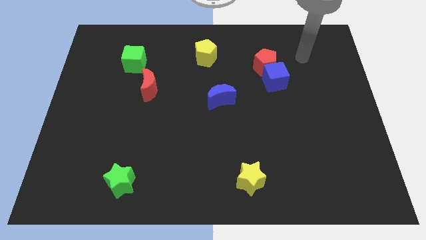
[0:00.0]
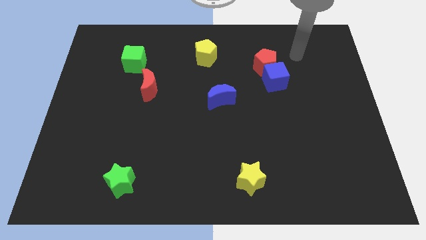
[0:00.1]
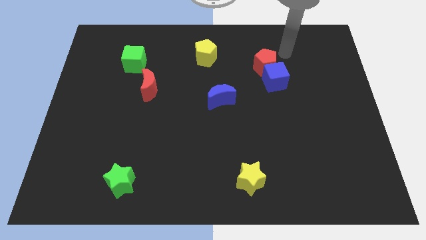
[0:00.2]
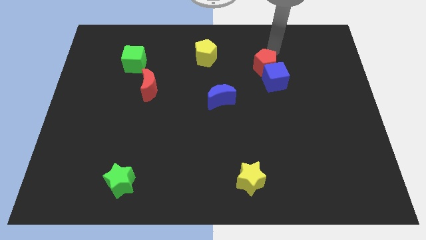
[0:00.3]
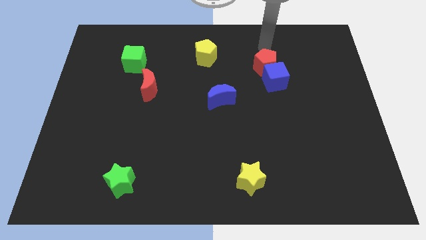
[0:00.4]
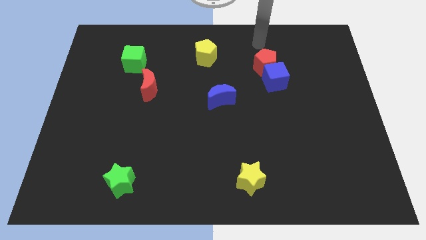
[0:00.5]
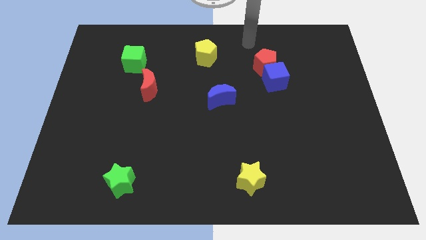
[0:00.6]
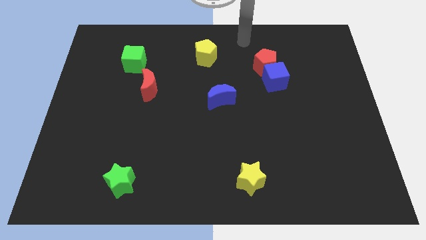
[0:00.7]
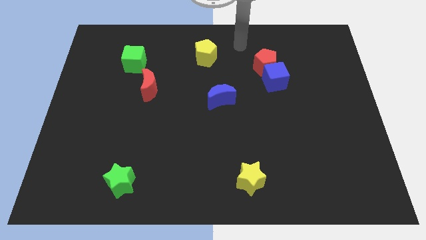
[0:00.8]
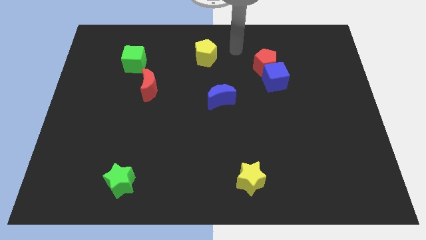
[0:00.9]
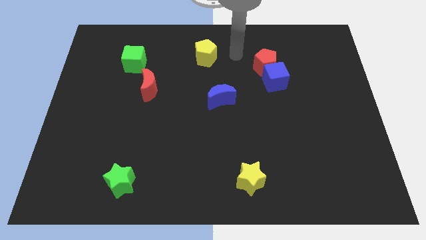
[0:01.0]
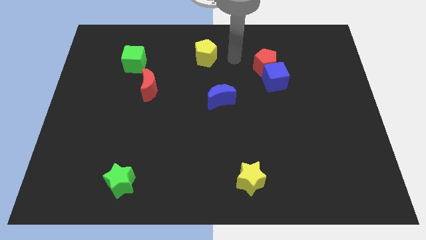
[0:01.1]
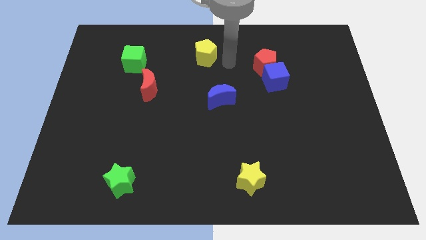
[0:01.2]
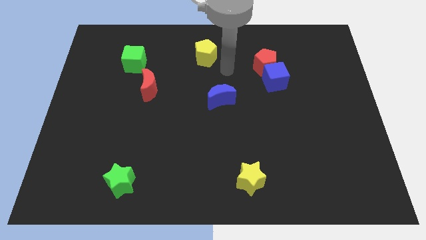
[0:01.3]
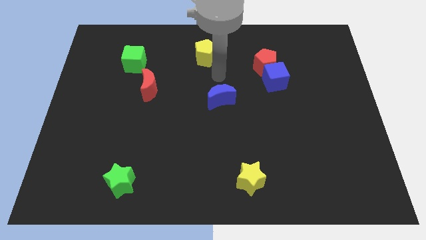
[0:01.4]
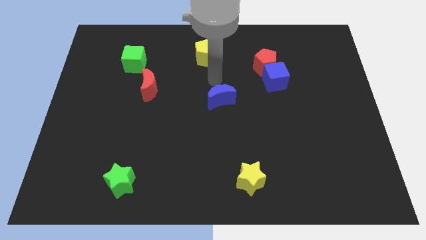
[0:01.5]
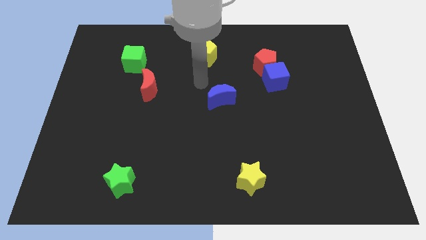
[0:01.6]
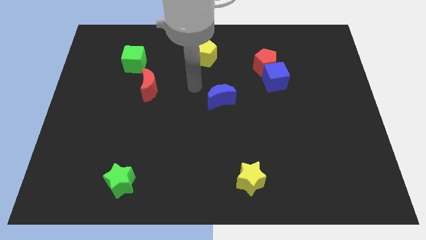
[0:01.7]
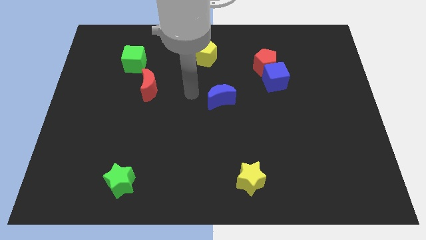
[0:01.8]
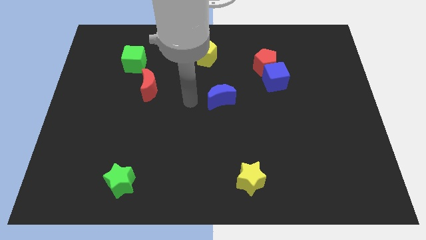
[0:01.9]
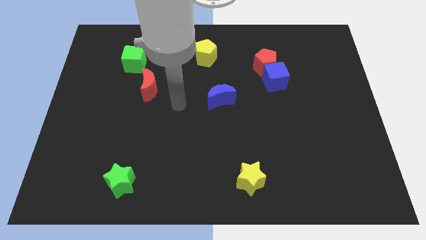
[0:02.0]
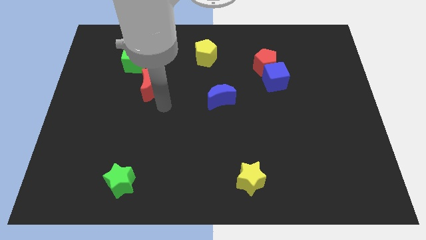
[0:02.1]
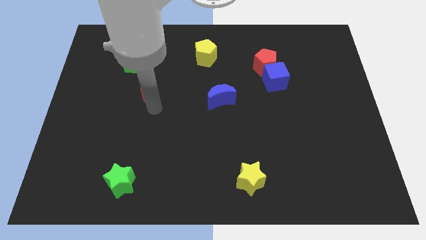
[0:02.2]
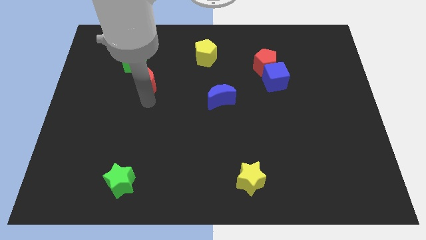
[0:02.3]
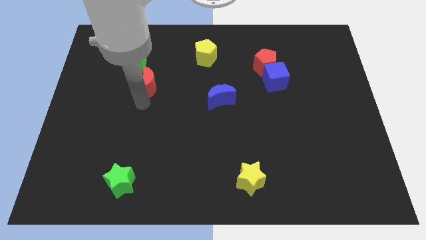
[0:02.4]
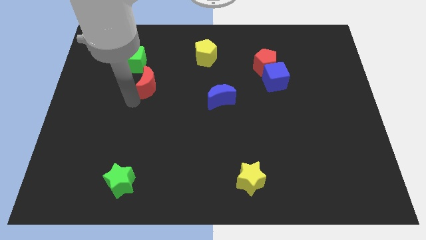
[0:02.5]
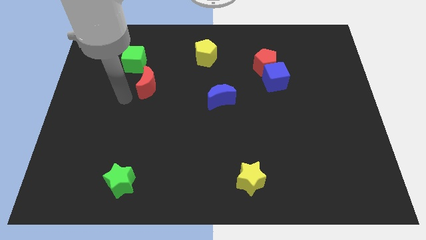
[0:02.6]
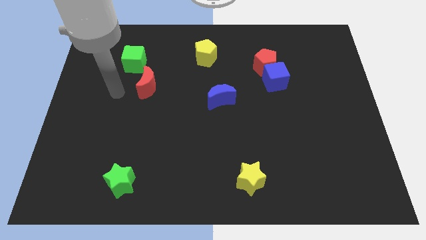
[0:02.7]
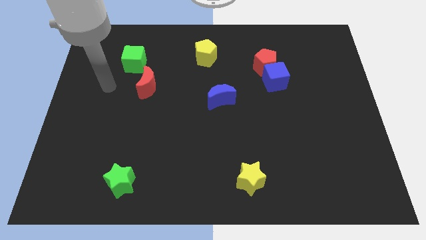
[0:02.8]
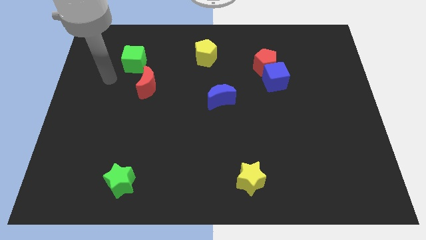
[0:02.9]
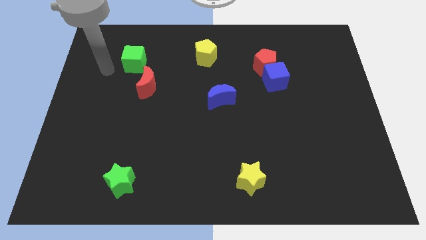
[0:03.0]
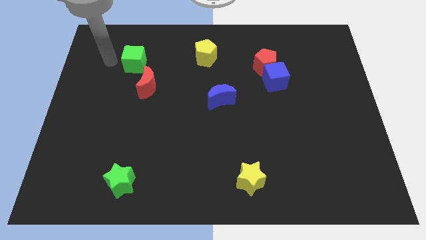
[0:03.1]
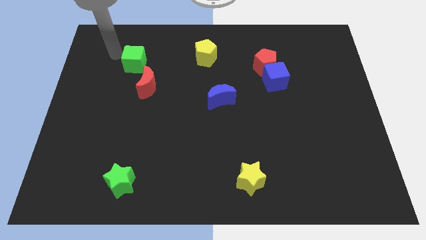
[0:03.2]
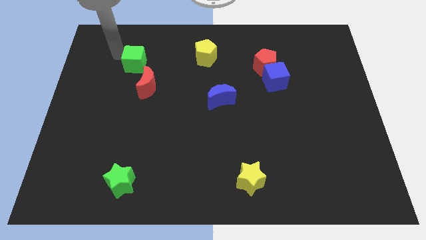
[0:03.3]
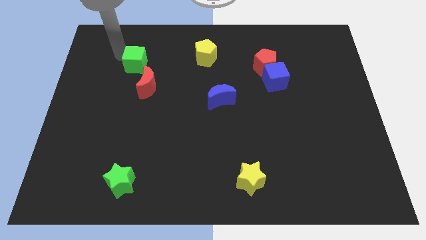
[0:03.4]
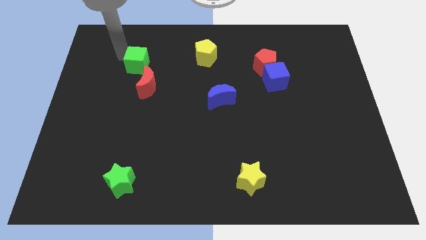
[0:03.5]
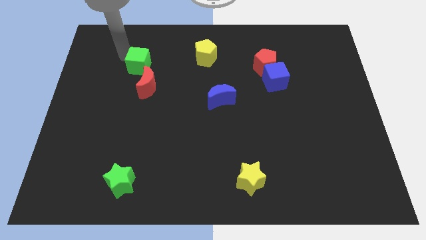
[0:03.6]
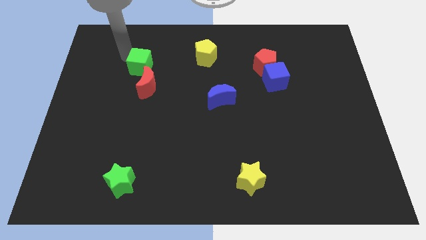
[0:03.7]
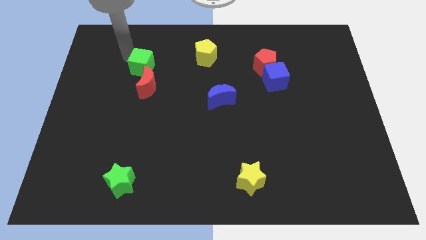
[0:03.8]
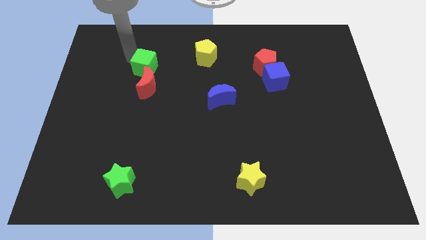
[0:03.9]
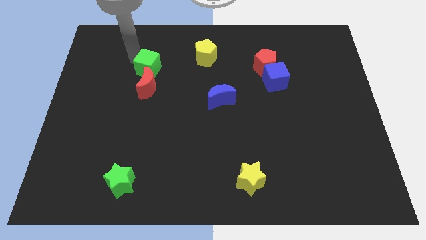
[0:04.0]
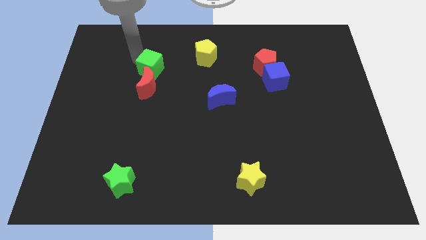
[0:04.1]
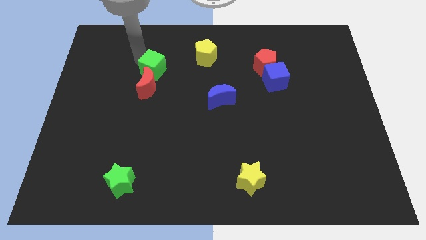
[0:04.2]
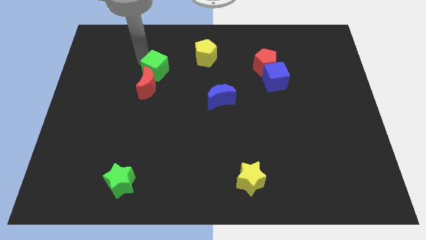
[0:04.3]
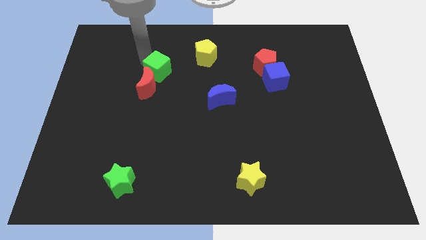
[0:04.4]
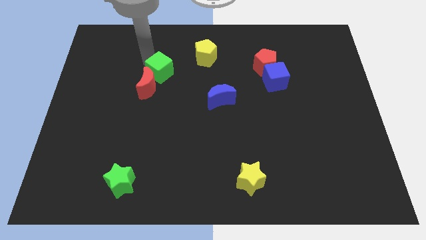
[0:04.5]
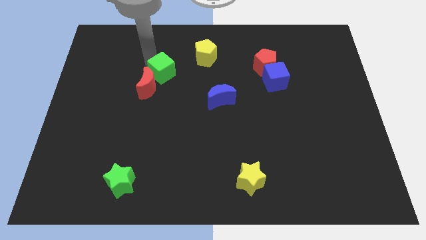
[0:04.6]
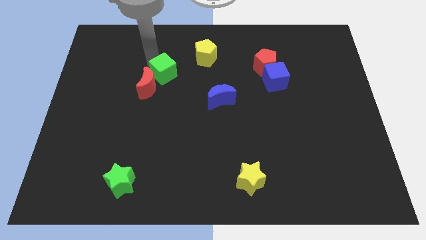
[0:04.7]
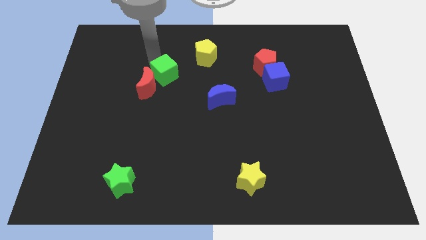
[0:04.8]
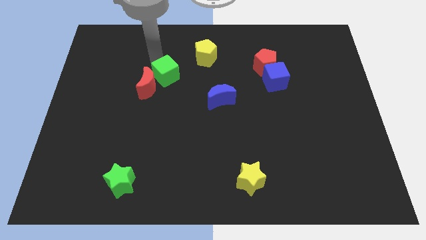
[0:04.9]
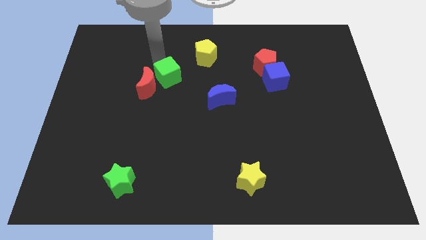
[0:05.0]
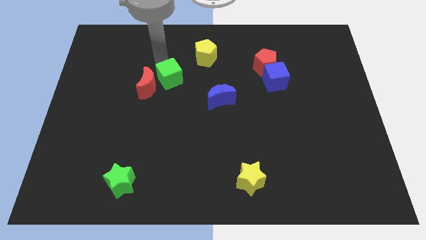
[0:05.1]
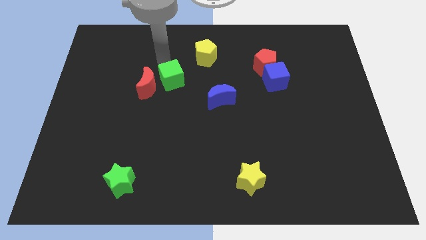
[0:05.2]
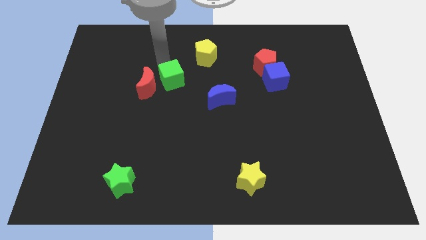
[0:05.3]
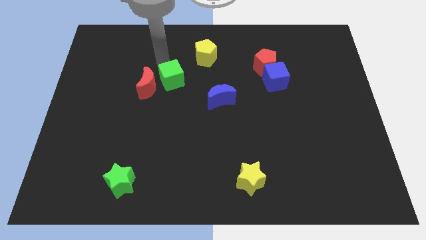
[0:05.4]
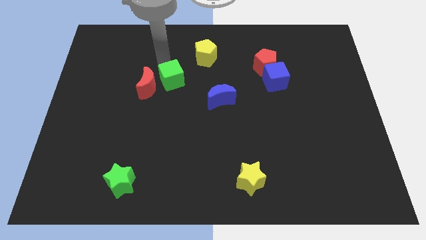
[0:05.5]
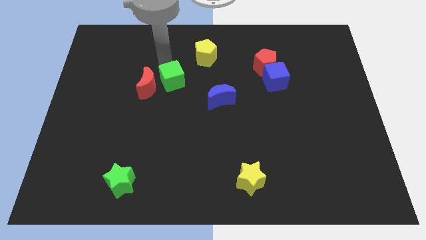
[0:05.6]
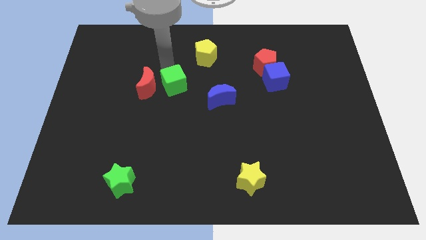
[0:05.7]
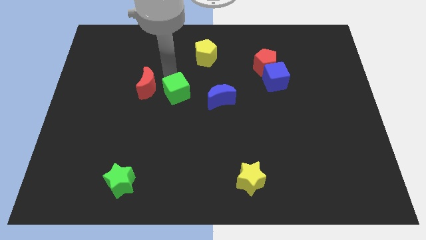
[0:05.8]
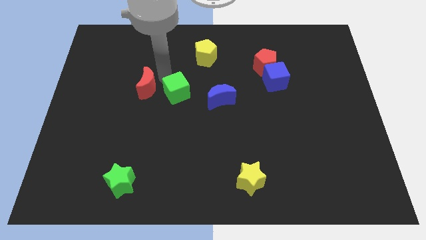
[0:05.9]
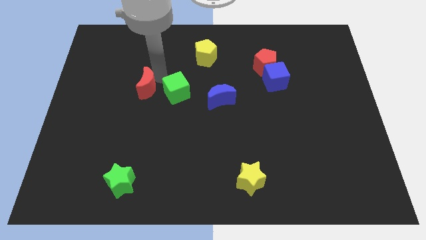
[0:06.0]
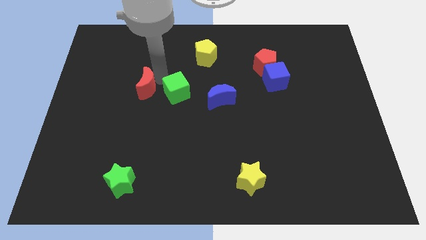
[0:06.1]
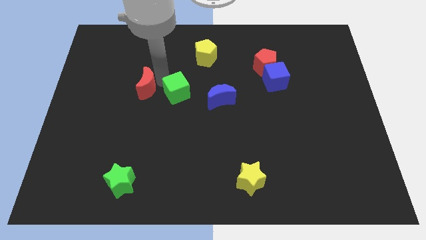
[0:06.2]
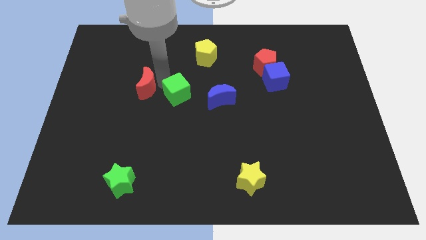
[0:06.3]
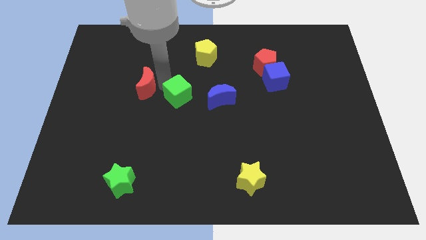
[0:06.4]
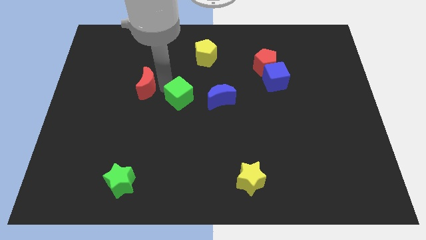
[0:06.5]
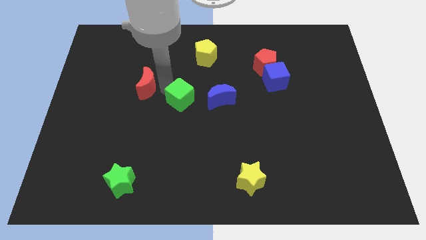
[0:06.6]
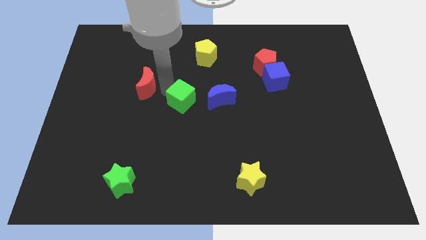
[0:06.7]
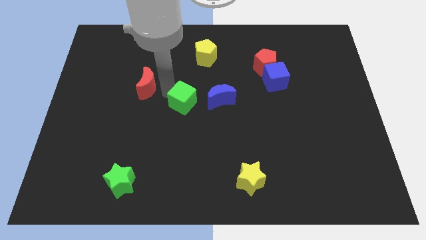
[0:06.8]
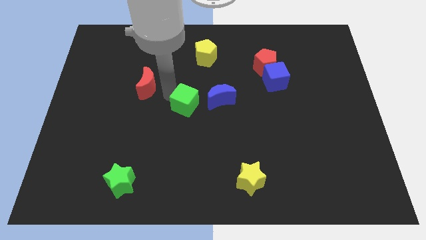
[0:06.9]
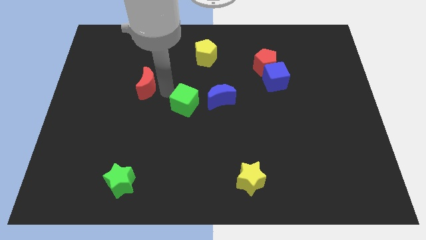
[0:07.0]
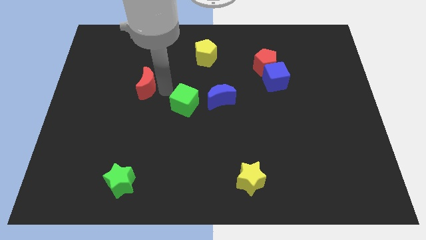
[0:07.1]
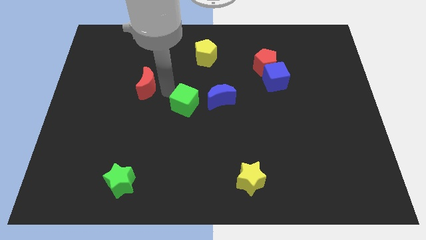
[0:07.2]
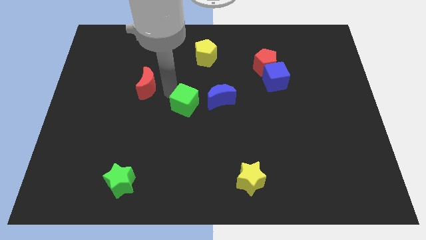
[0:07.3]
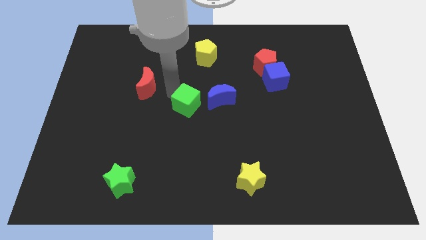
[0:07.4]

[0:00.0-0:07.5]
slide the green cube downwards and to the right diagonally

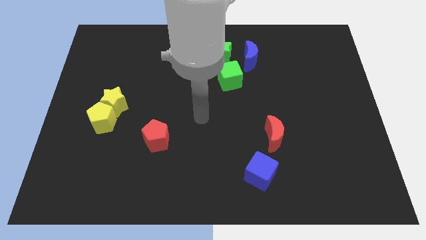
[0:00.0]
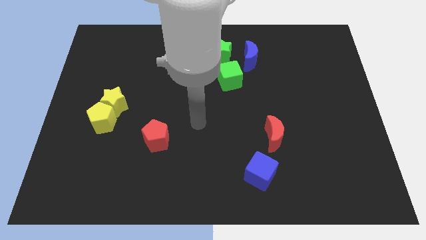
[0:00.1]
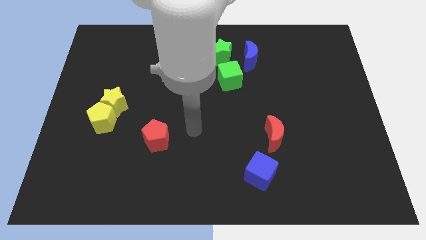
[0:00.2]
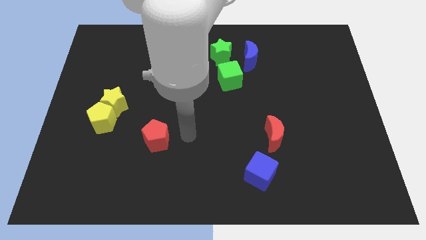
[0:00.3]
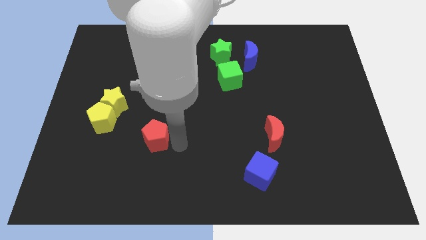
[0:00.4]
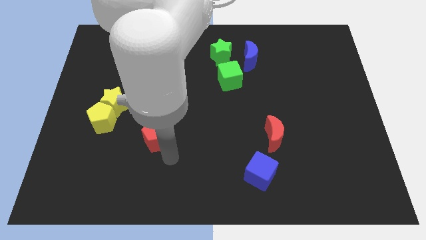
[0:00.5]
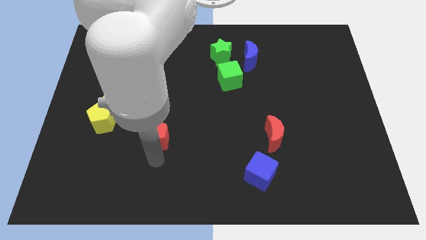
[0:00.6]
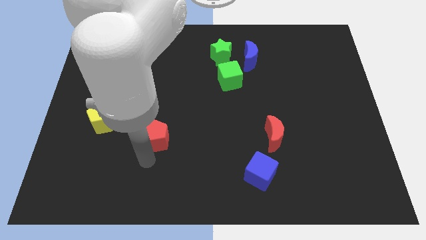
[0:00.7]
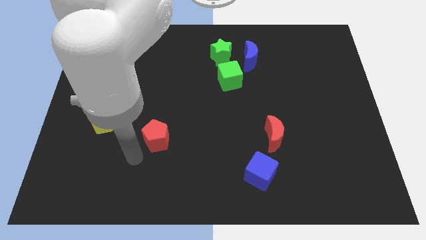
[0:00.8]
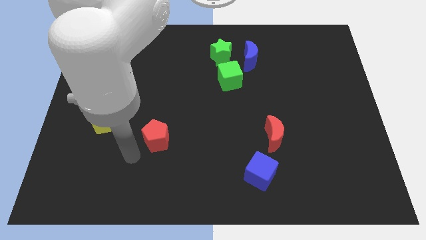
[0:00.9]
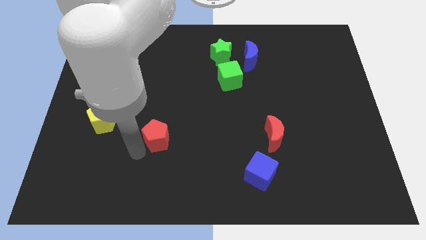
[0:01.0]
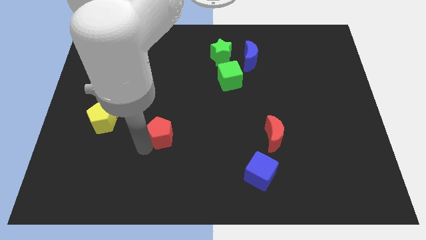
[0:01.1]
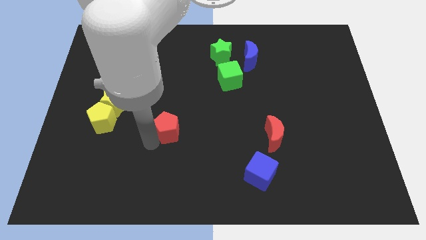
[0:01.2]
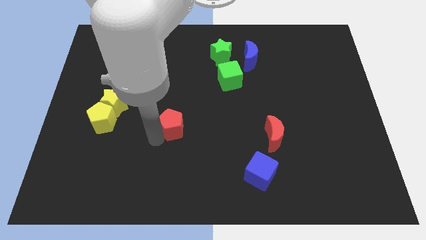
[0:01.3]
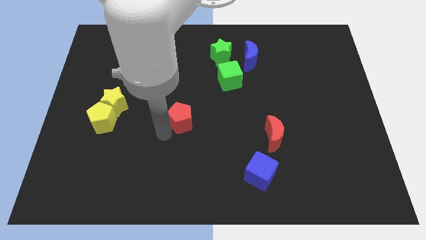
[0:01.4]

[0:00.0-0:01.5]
push the red pentagon upwards and to the right slightly
